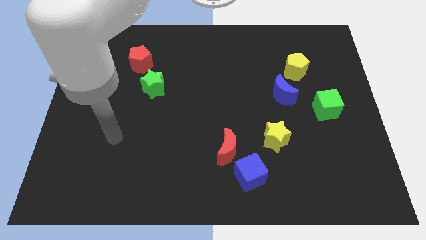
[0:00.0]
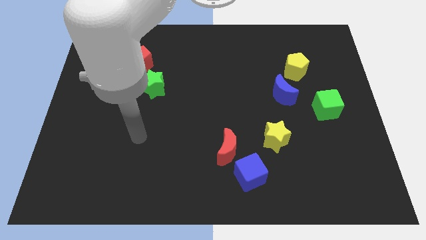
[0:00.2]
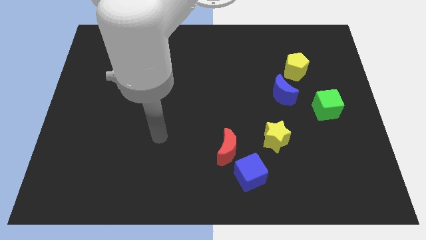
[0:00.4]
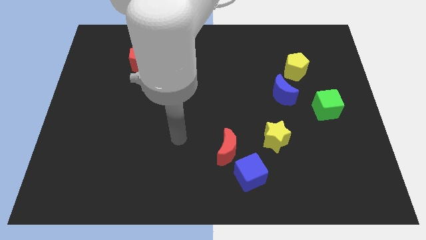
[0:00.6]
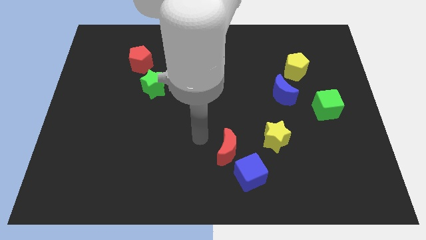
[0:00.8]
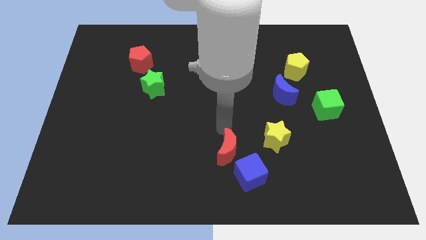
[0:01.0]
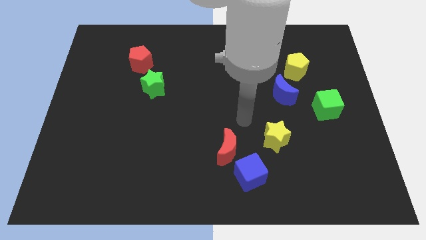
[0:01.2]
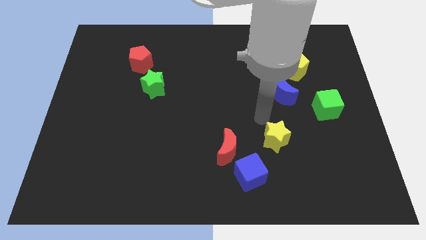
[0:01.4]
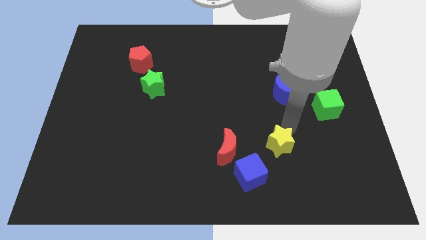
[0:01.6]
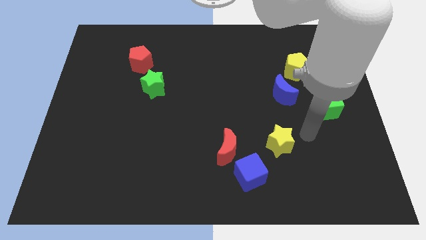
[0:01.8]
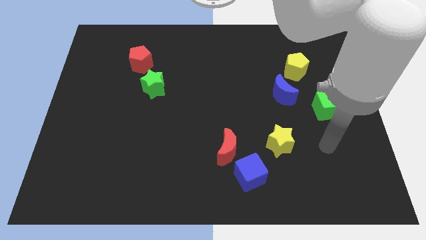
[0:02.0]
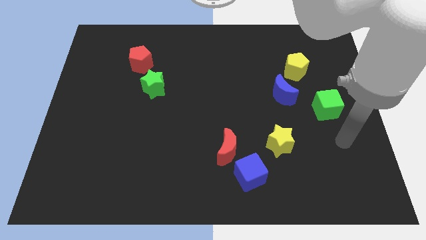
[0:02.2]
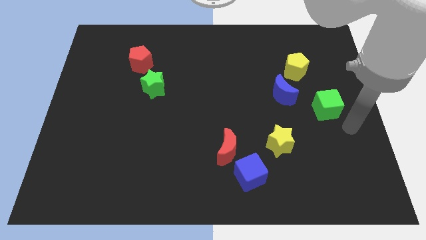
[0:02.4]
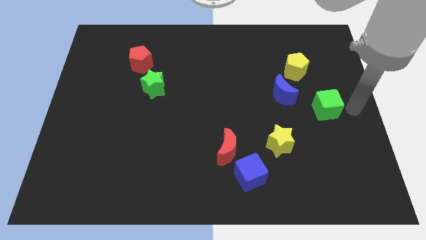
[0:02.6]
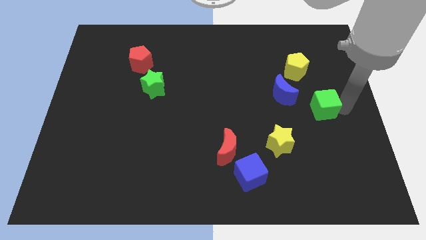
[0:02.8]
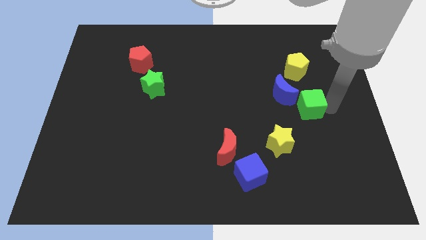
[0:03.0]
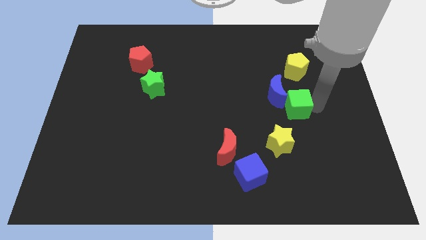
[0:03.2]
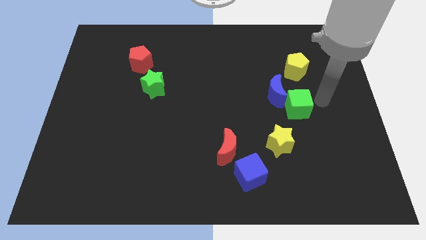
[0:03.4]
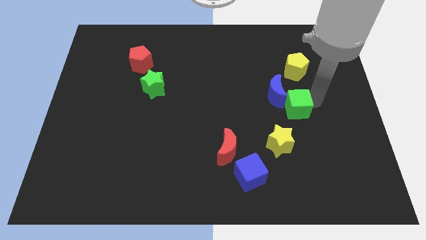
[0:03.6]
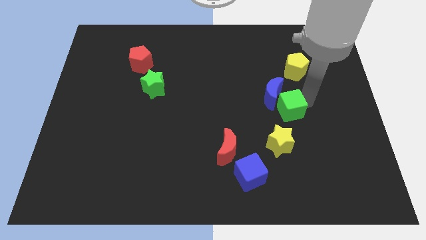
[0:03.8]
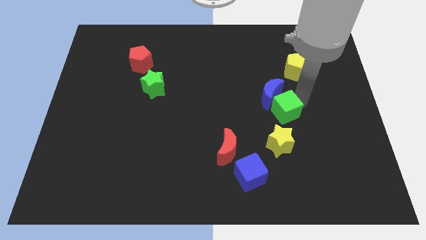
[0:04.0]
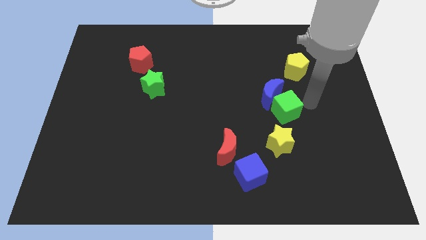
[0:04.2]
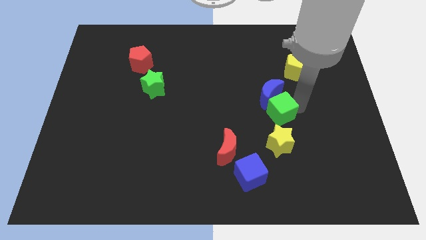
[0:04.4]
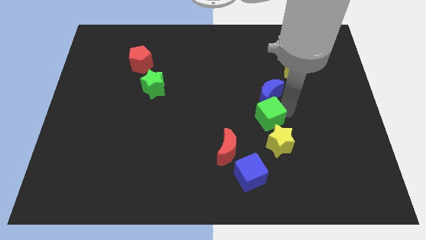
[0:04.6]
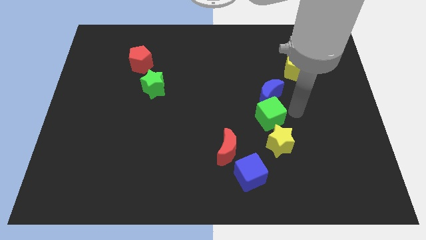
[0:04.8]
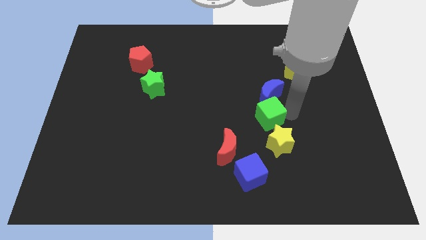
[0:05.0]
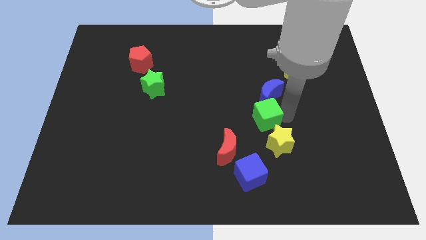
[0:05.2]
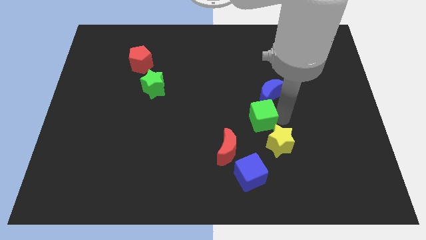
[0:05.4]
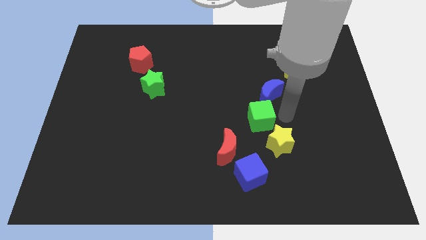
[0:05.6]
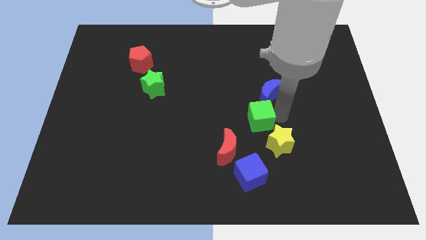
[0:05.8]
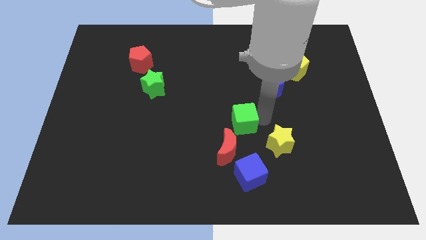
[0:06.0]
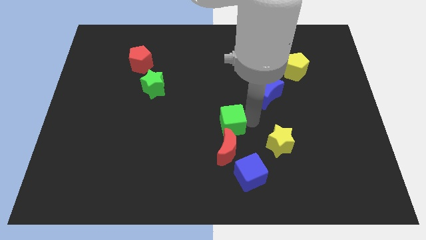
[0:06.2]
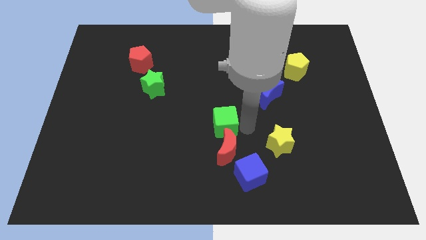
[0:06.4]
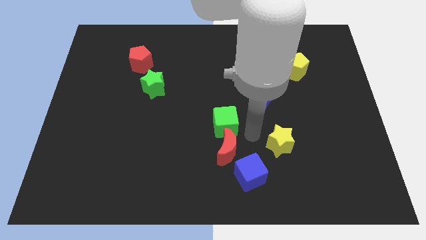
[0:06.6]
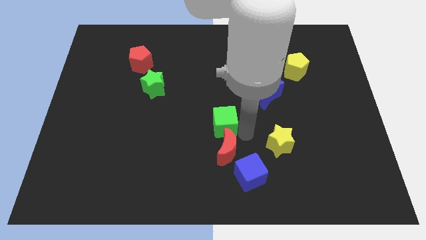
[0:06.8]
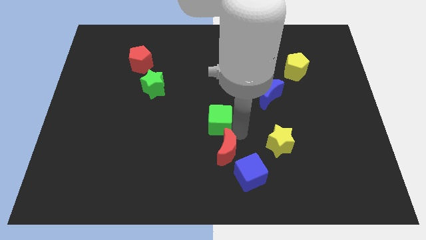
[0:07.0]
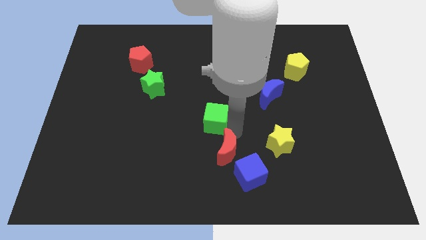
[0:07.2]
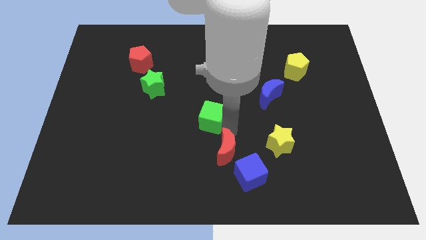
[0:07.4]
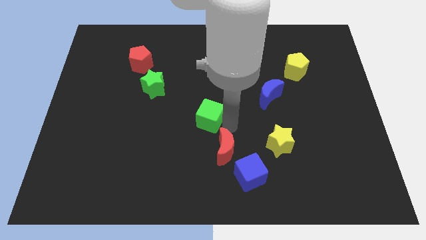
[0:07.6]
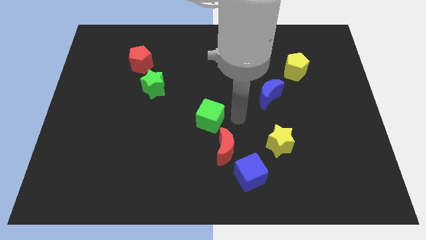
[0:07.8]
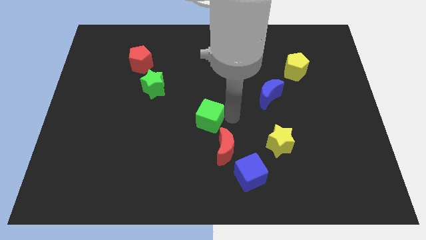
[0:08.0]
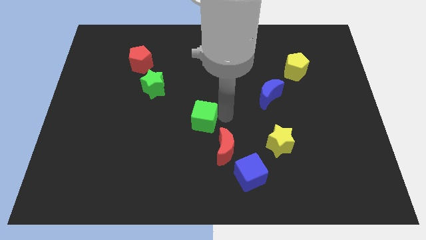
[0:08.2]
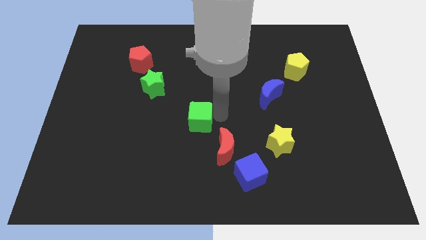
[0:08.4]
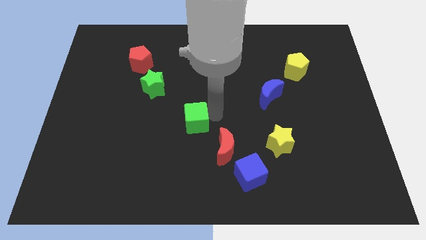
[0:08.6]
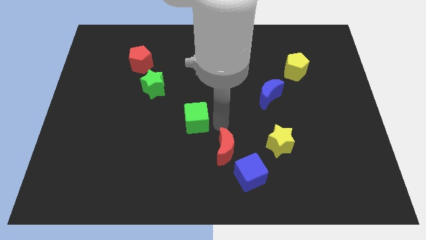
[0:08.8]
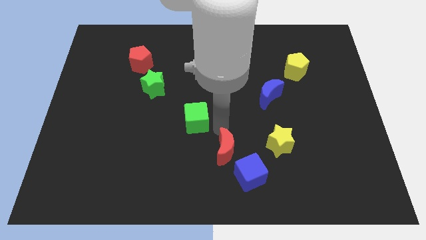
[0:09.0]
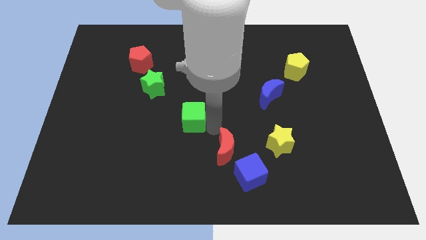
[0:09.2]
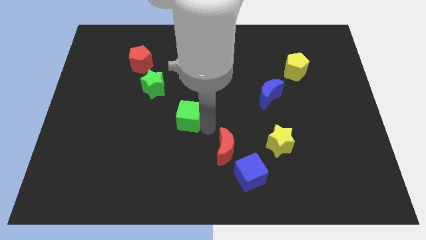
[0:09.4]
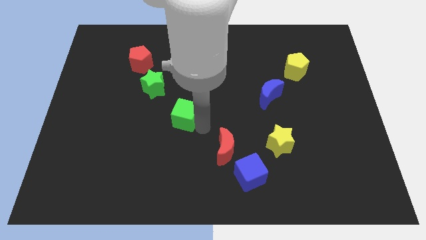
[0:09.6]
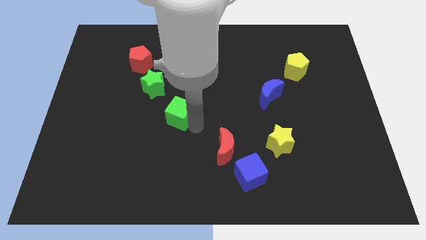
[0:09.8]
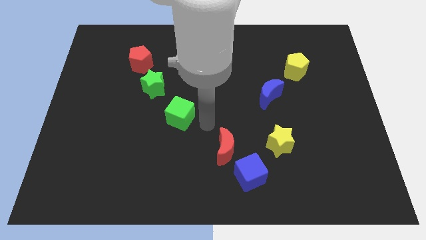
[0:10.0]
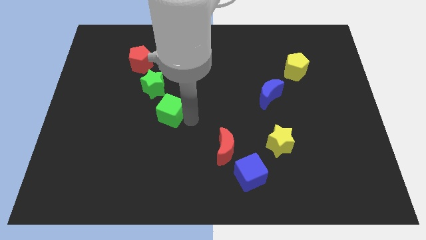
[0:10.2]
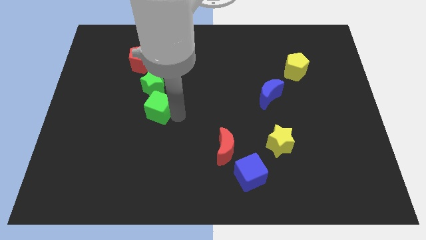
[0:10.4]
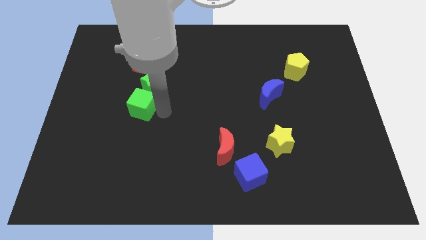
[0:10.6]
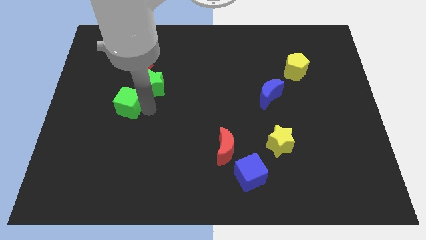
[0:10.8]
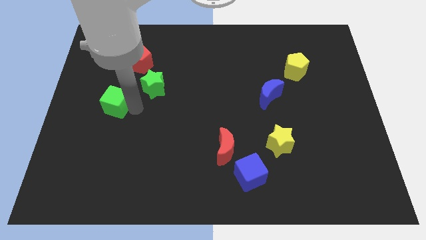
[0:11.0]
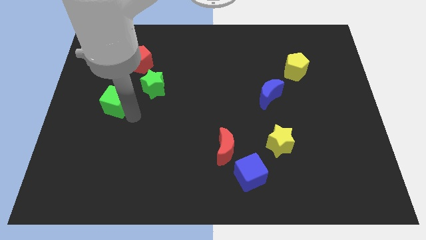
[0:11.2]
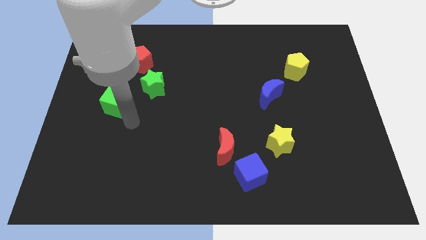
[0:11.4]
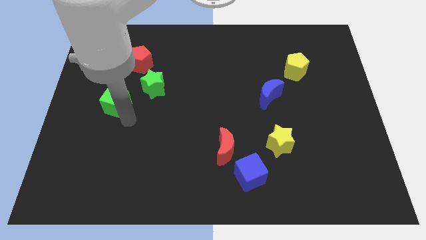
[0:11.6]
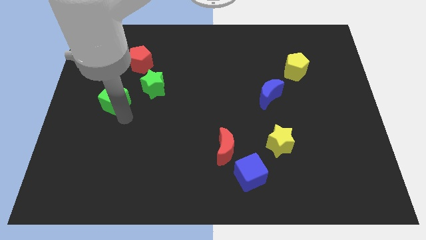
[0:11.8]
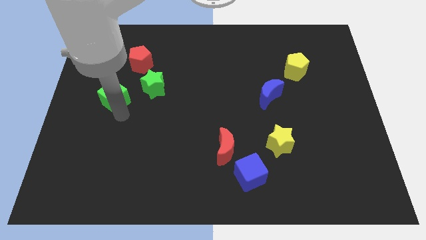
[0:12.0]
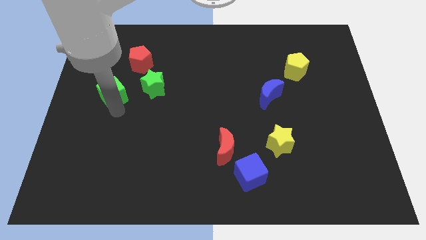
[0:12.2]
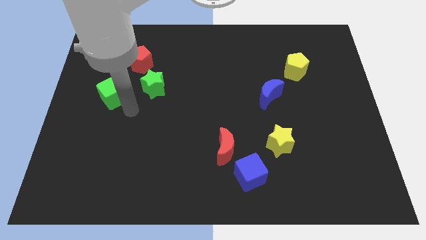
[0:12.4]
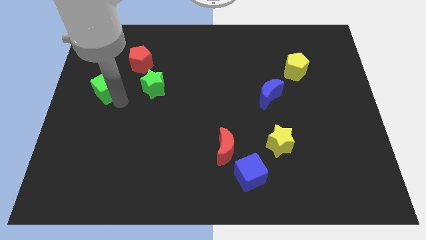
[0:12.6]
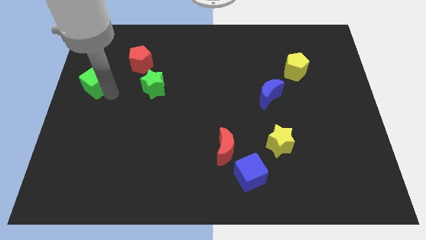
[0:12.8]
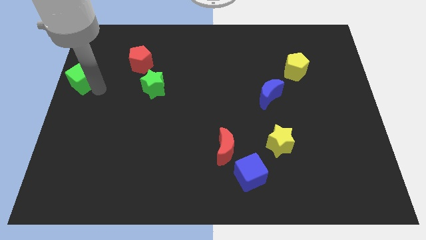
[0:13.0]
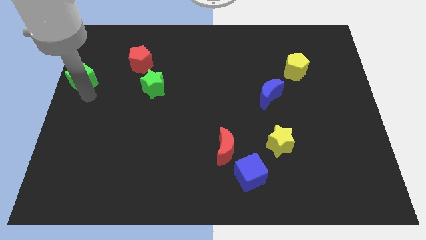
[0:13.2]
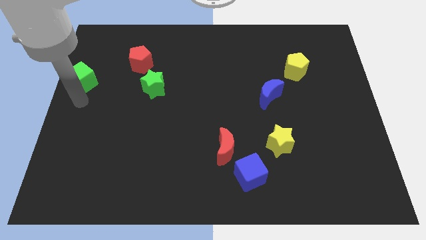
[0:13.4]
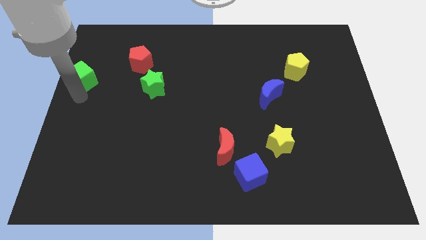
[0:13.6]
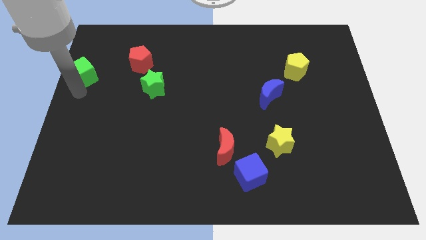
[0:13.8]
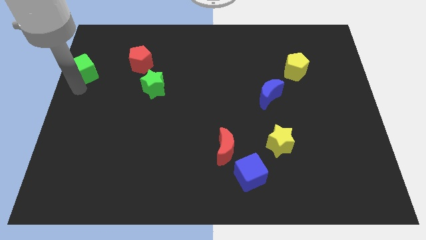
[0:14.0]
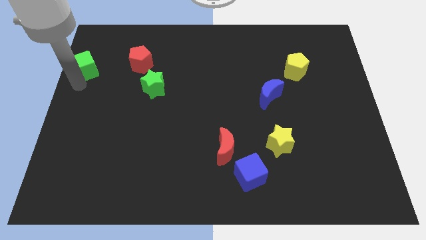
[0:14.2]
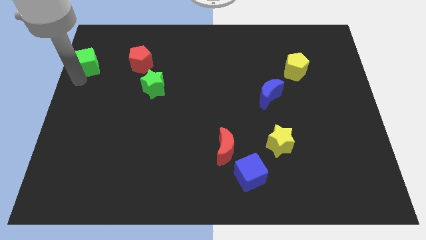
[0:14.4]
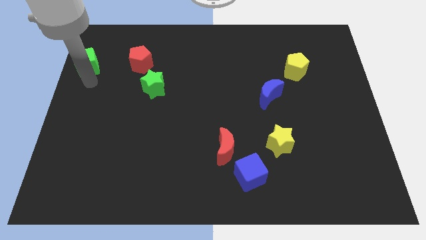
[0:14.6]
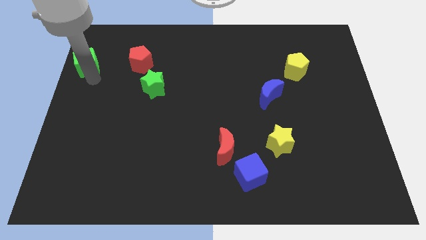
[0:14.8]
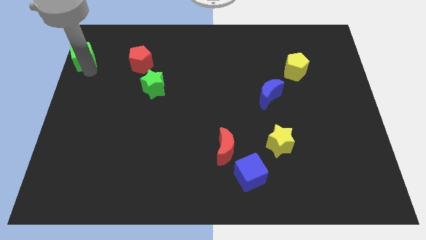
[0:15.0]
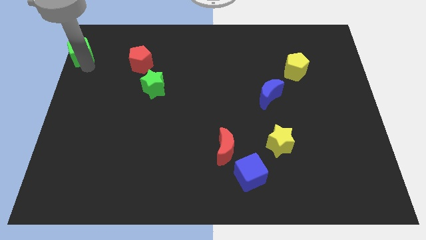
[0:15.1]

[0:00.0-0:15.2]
move the green cube to the top left corner
